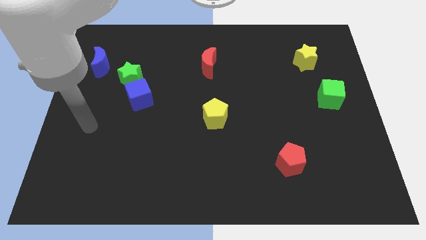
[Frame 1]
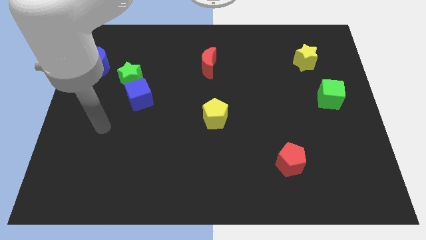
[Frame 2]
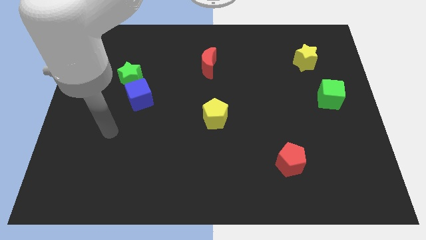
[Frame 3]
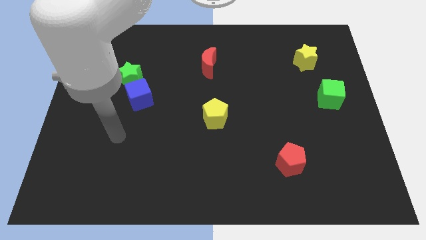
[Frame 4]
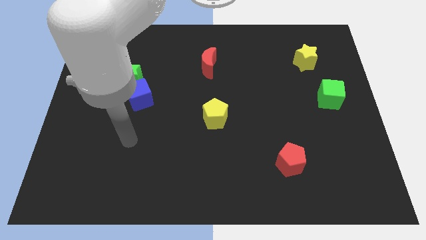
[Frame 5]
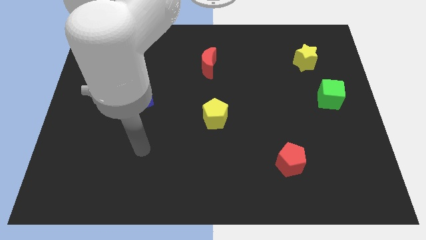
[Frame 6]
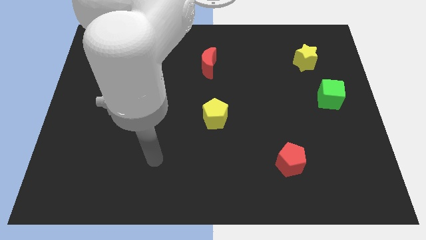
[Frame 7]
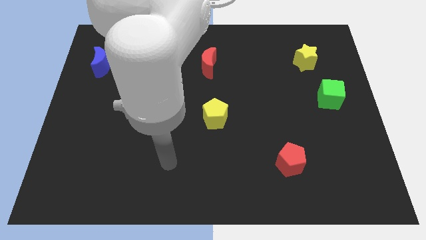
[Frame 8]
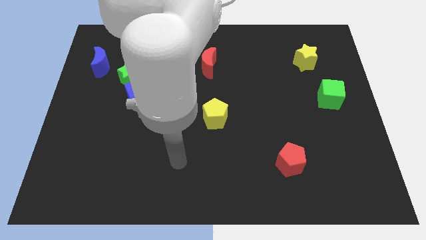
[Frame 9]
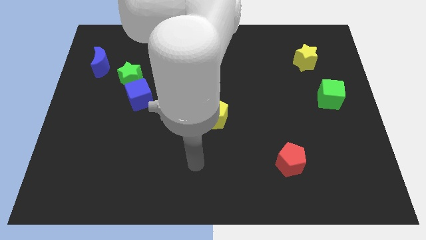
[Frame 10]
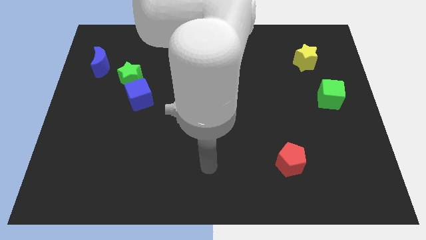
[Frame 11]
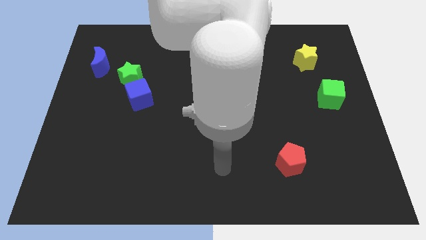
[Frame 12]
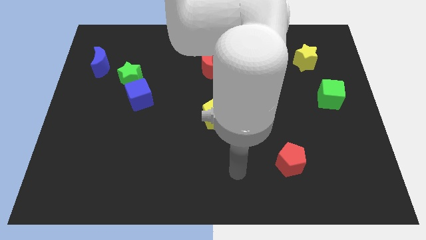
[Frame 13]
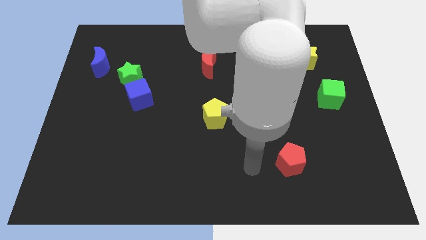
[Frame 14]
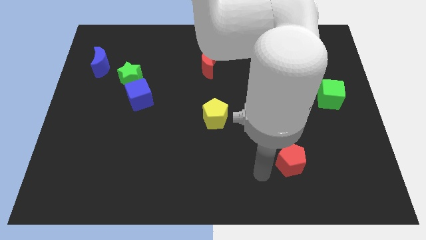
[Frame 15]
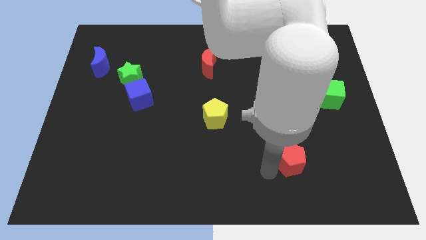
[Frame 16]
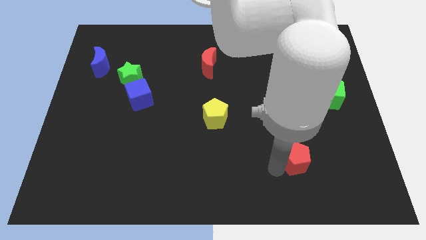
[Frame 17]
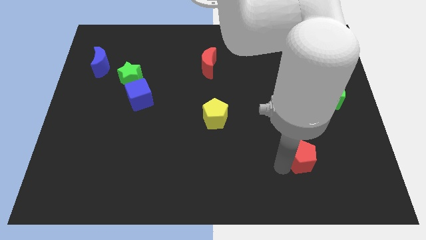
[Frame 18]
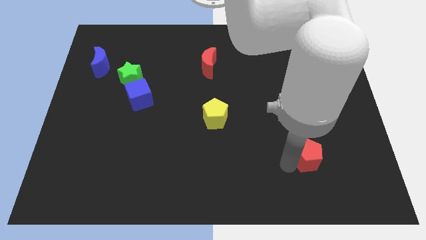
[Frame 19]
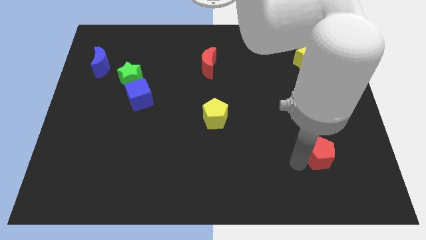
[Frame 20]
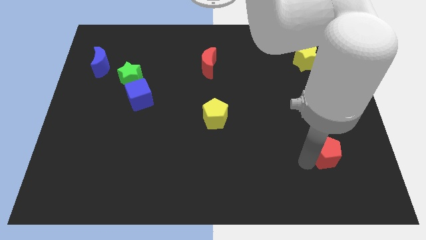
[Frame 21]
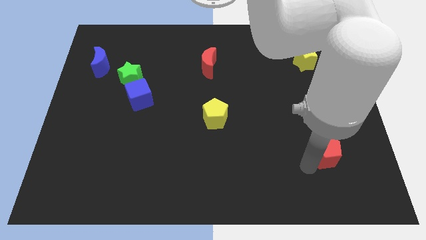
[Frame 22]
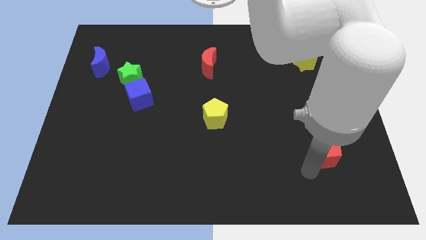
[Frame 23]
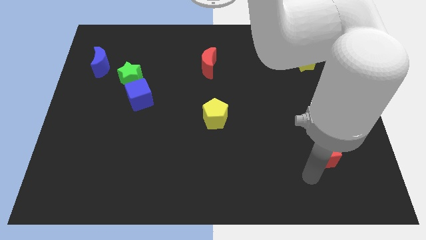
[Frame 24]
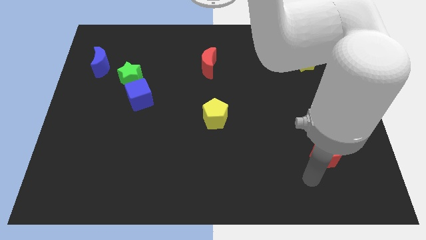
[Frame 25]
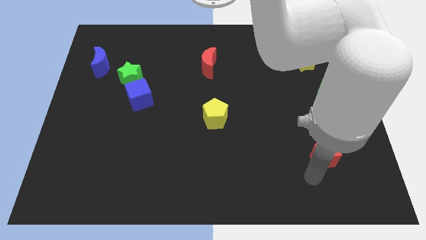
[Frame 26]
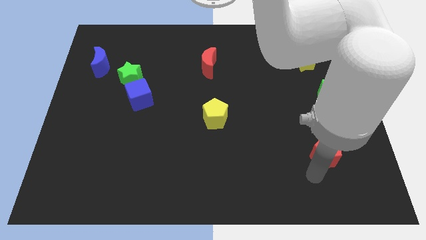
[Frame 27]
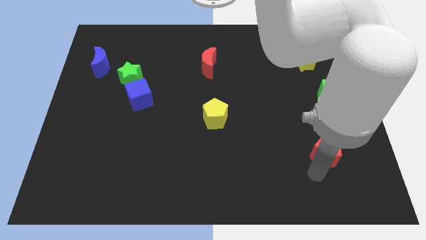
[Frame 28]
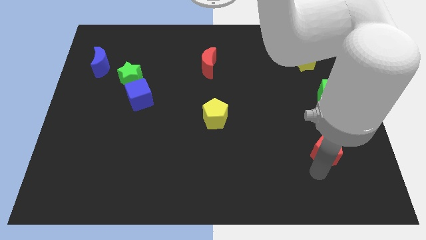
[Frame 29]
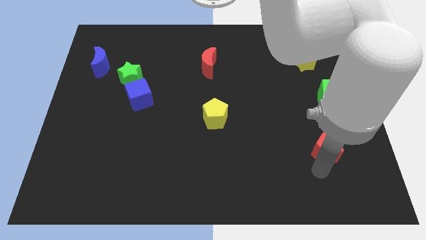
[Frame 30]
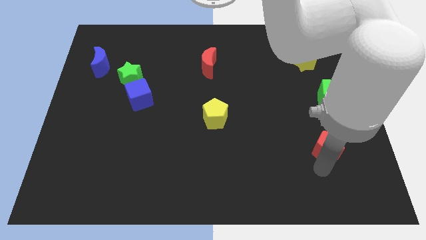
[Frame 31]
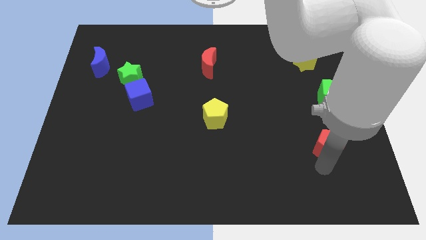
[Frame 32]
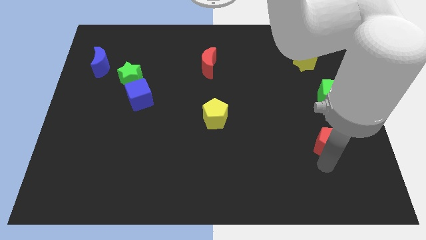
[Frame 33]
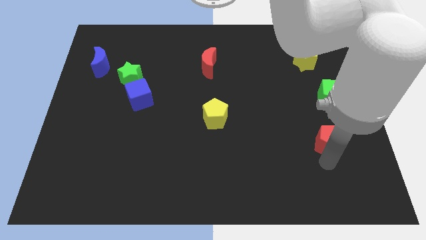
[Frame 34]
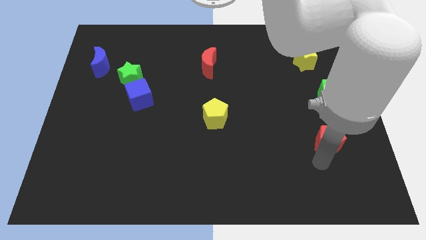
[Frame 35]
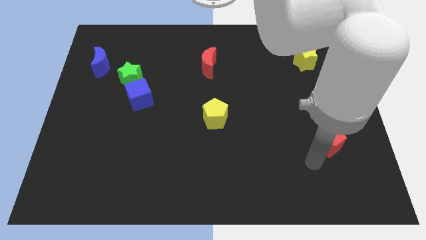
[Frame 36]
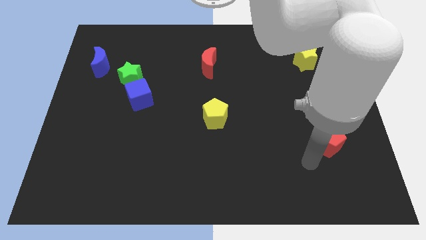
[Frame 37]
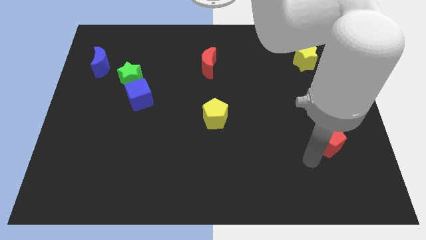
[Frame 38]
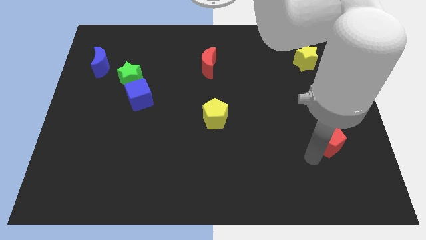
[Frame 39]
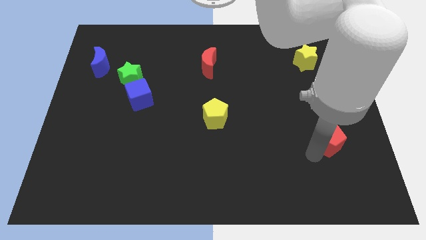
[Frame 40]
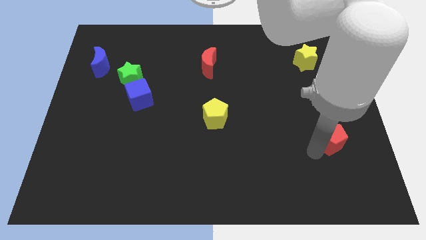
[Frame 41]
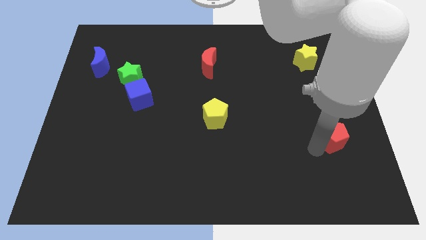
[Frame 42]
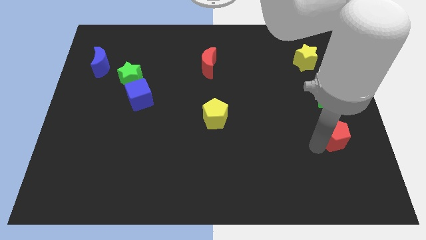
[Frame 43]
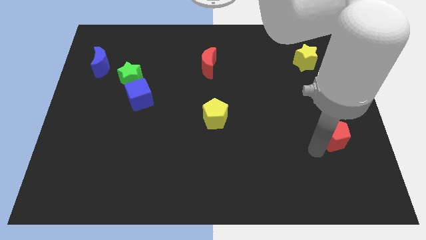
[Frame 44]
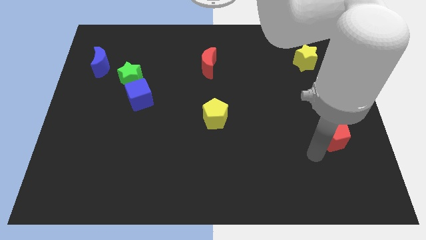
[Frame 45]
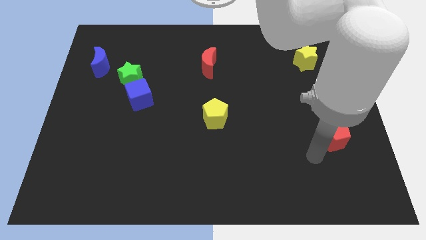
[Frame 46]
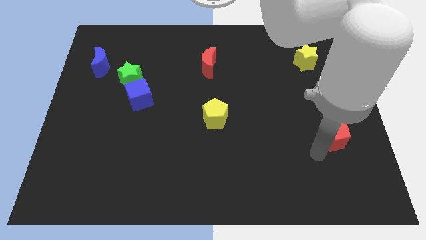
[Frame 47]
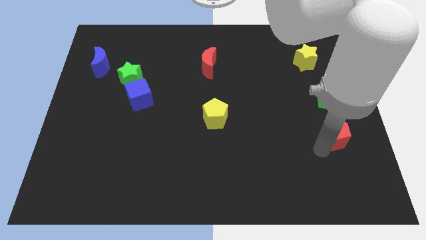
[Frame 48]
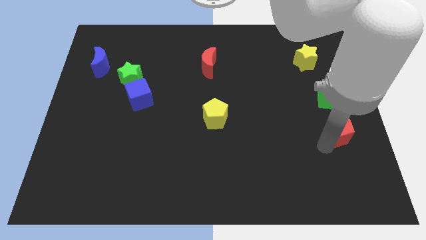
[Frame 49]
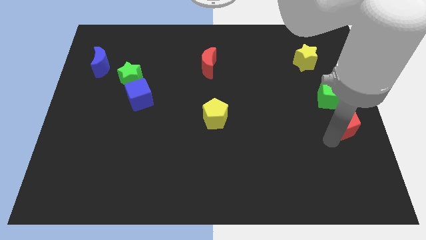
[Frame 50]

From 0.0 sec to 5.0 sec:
slide the red pentagon to the center right

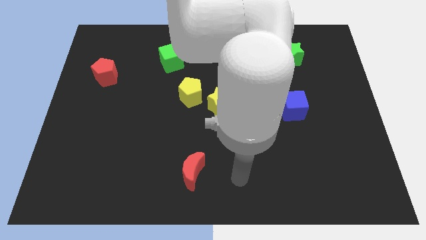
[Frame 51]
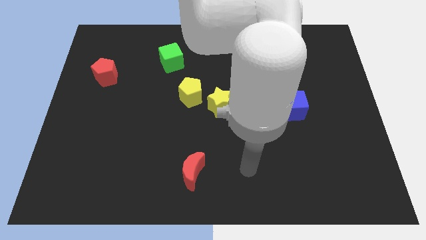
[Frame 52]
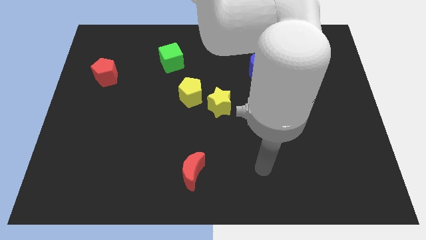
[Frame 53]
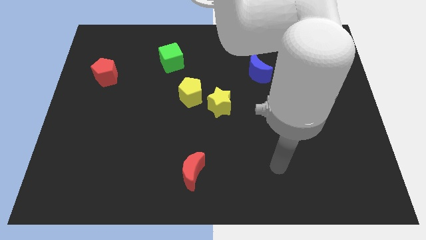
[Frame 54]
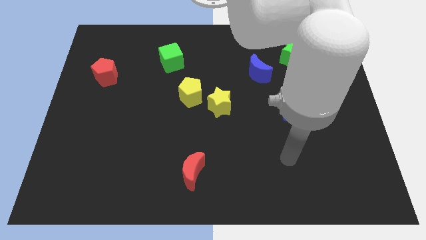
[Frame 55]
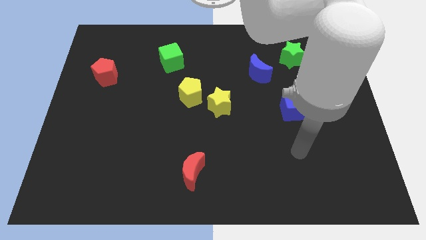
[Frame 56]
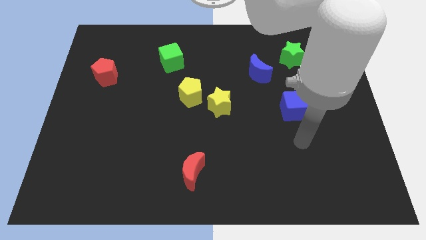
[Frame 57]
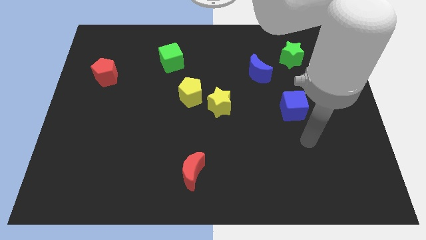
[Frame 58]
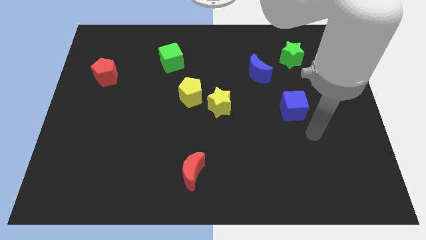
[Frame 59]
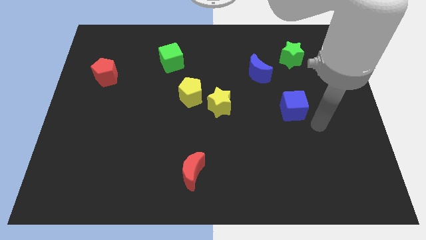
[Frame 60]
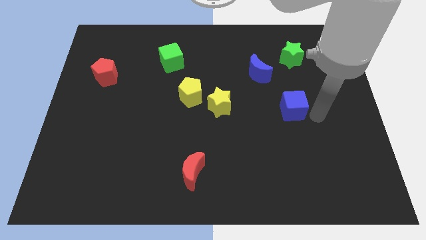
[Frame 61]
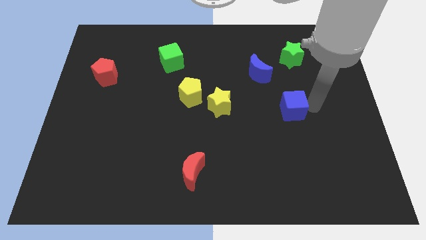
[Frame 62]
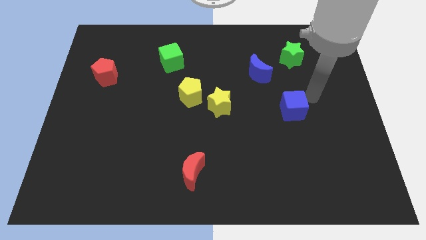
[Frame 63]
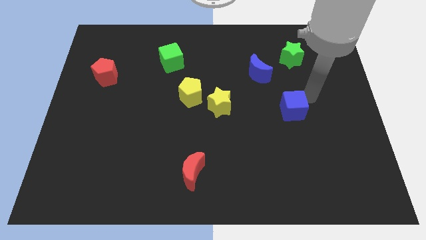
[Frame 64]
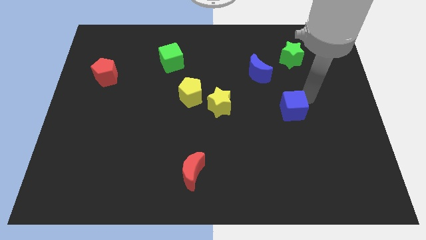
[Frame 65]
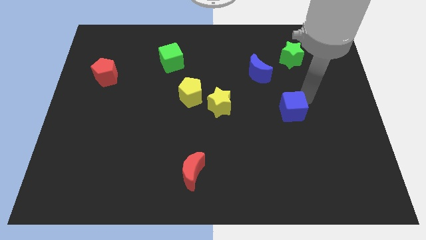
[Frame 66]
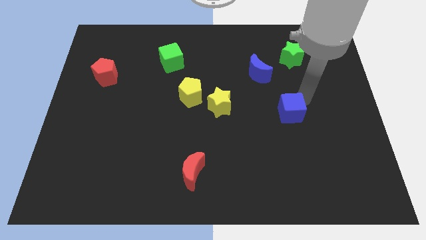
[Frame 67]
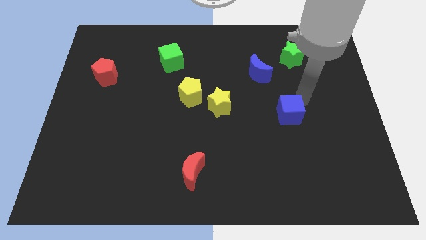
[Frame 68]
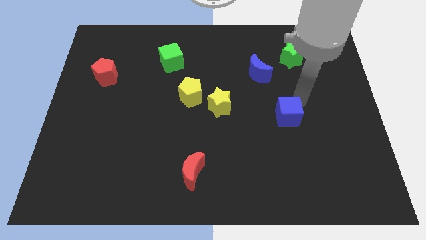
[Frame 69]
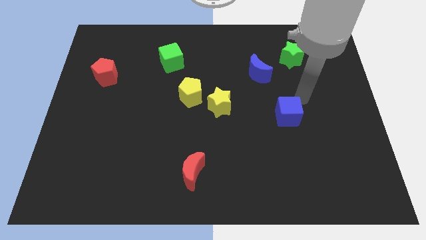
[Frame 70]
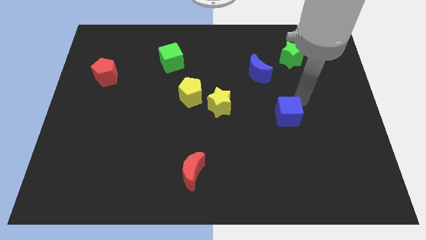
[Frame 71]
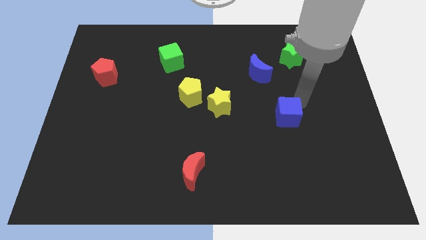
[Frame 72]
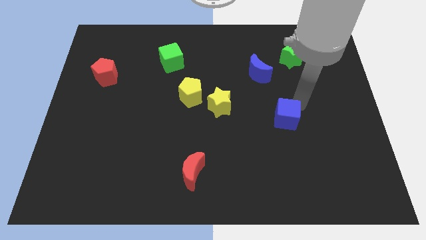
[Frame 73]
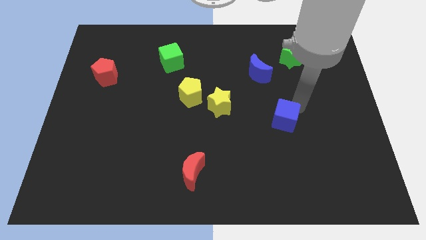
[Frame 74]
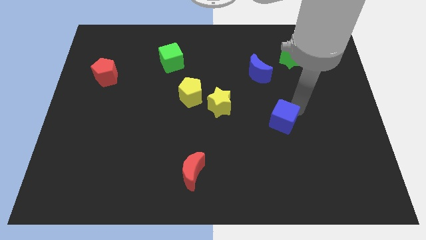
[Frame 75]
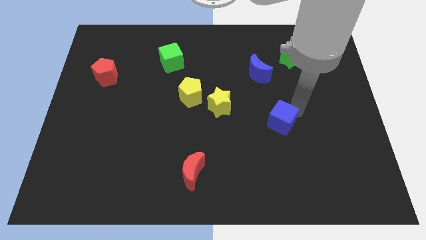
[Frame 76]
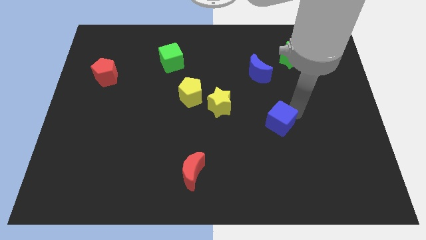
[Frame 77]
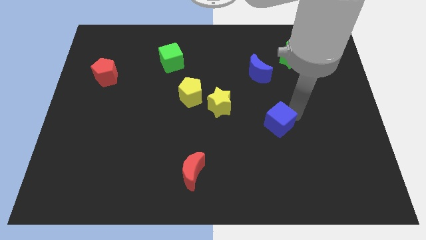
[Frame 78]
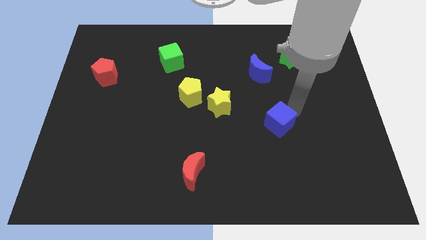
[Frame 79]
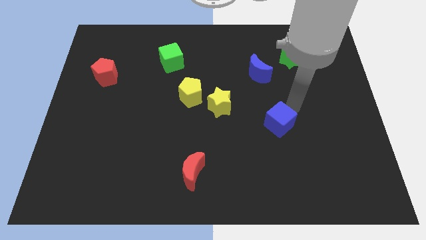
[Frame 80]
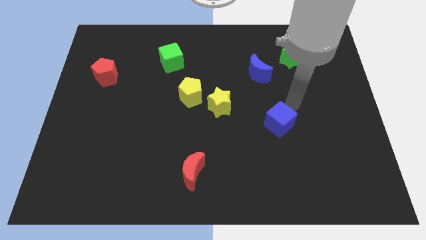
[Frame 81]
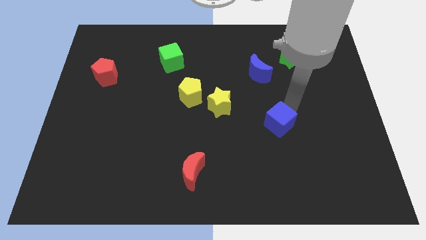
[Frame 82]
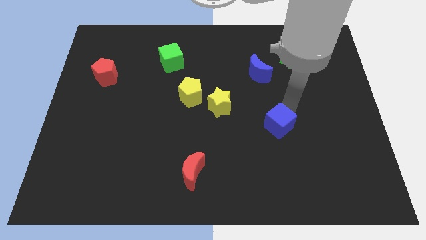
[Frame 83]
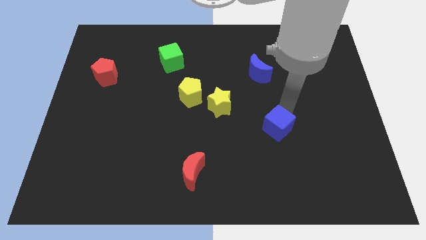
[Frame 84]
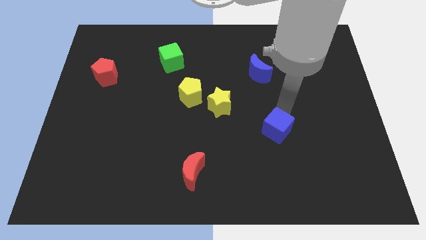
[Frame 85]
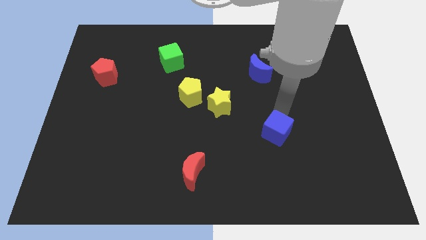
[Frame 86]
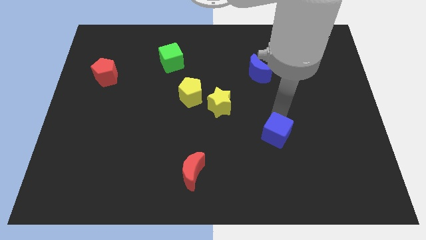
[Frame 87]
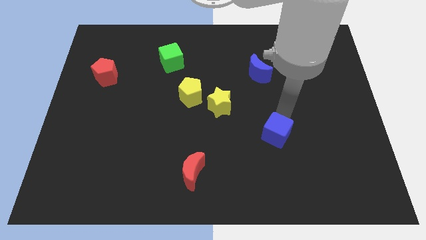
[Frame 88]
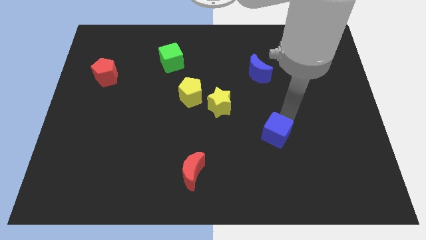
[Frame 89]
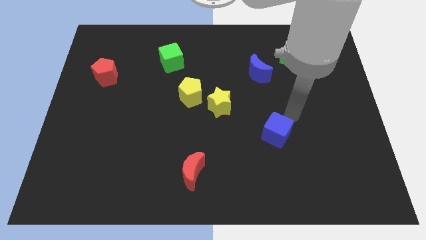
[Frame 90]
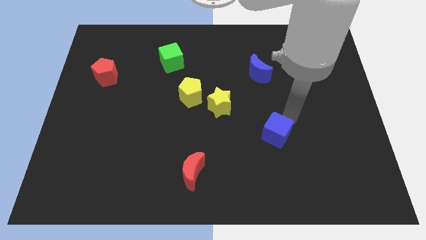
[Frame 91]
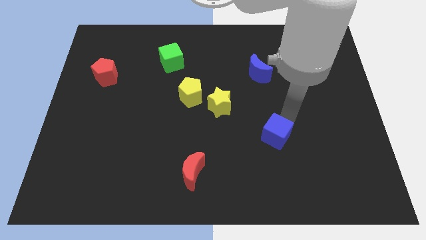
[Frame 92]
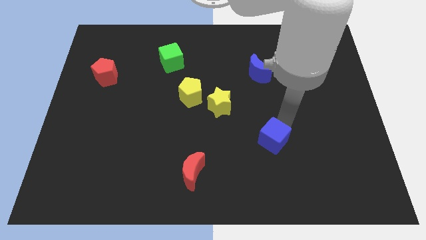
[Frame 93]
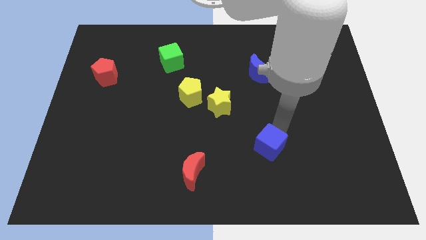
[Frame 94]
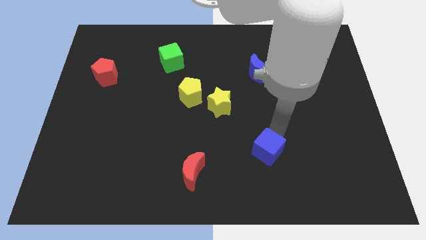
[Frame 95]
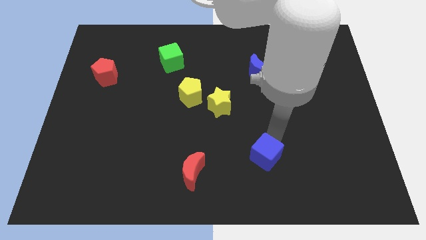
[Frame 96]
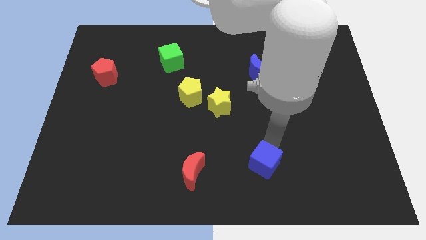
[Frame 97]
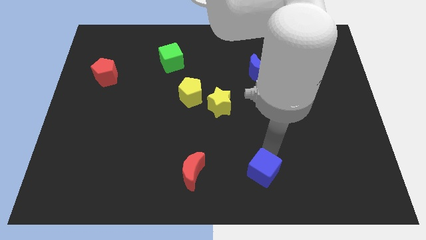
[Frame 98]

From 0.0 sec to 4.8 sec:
move the blue cube to the bottom side
